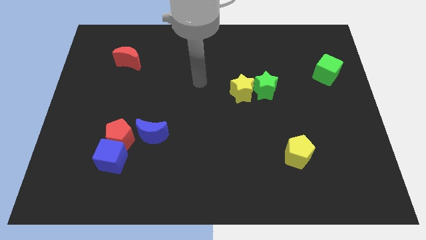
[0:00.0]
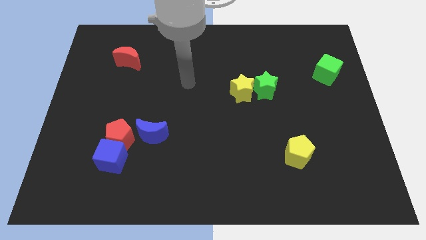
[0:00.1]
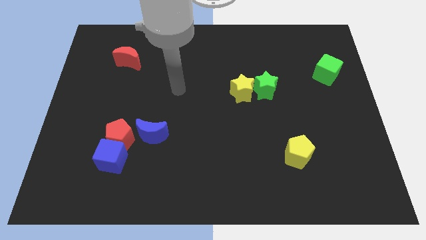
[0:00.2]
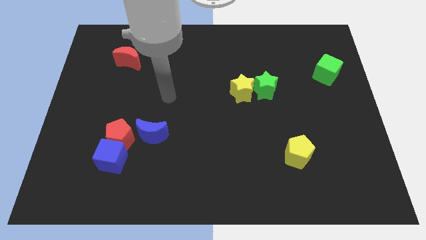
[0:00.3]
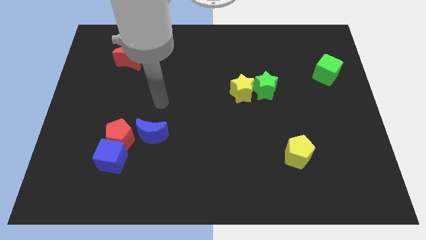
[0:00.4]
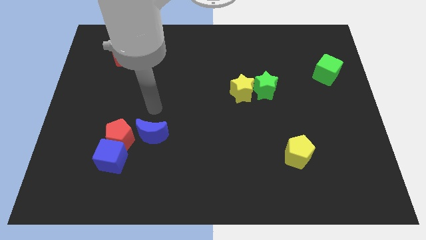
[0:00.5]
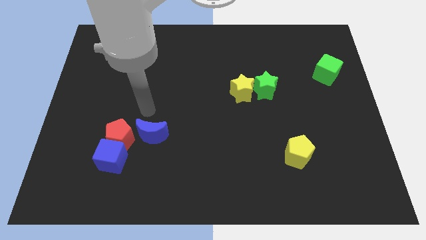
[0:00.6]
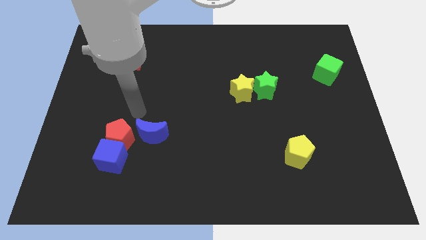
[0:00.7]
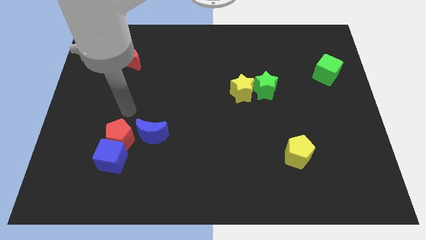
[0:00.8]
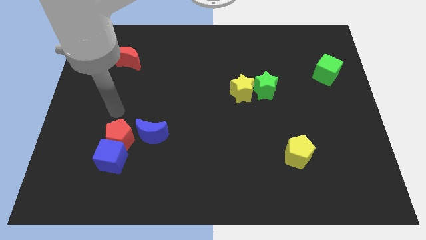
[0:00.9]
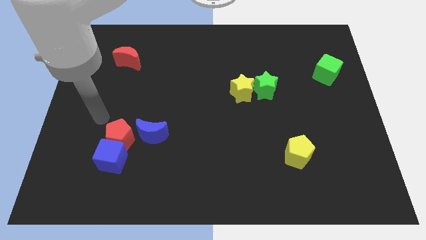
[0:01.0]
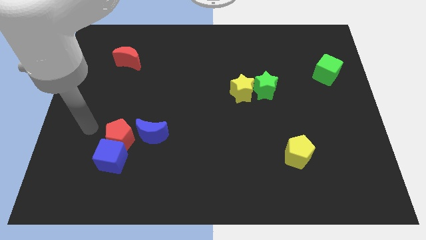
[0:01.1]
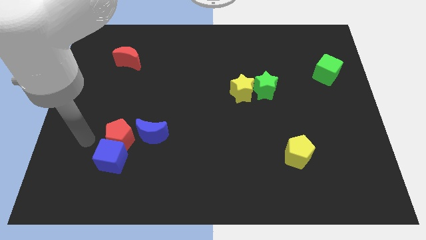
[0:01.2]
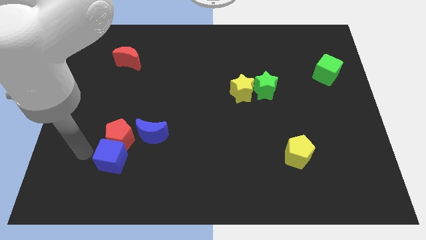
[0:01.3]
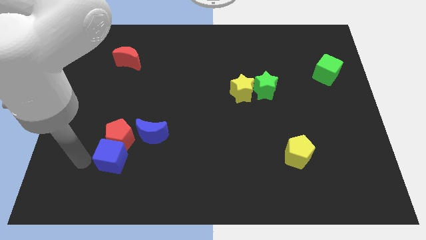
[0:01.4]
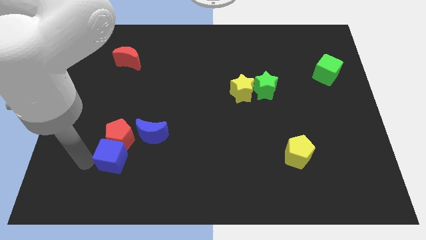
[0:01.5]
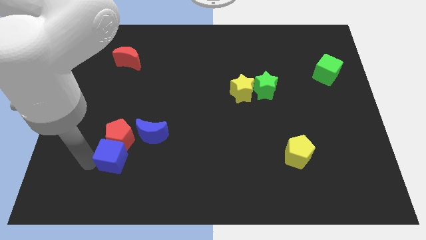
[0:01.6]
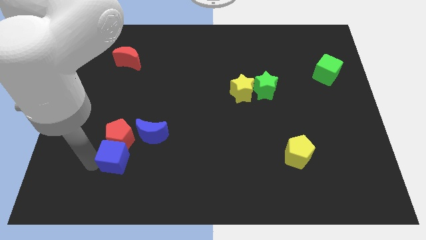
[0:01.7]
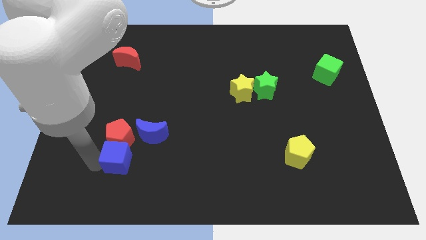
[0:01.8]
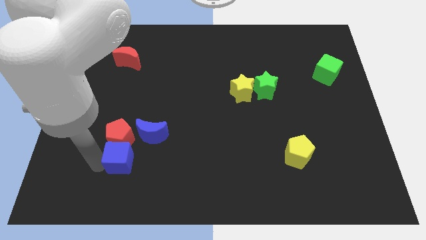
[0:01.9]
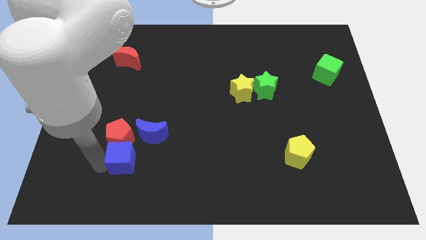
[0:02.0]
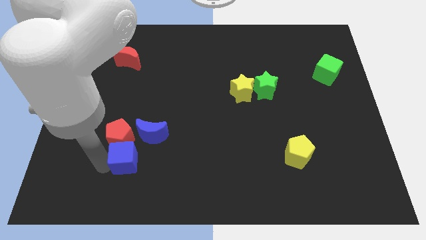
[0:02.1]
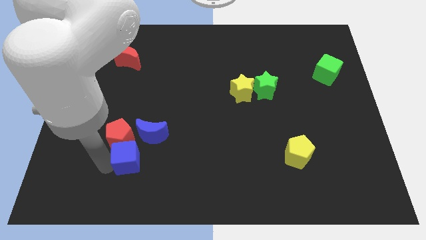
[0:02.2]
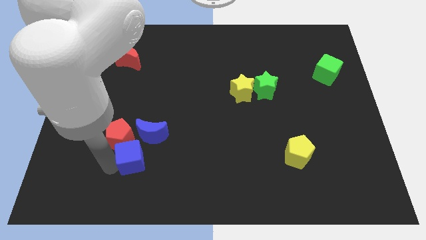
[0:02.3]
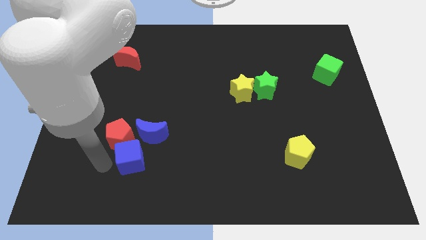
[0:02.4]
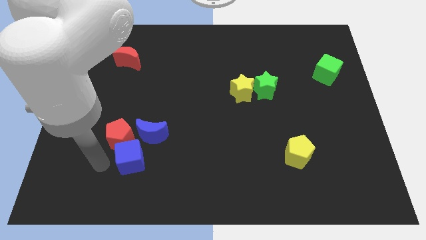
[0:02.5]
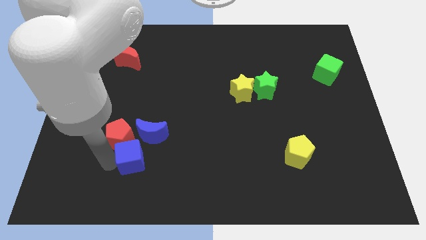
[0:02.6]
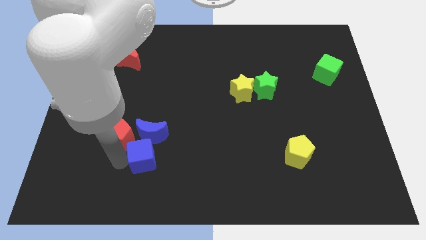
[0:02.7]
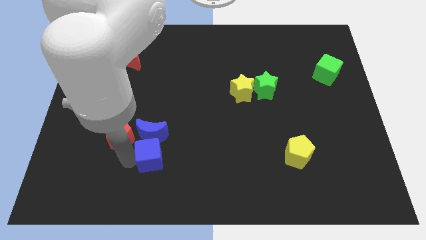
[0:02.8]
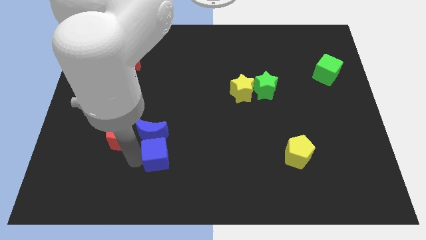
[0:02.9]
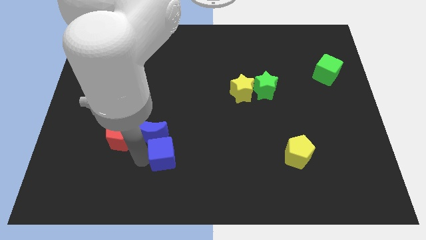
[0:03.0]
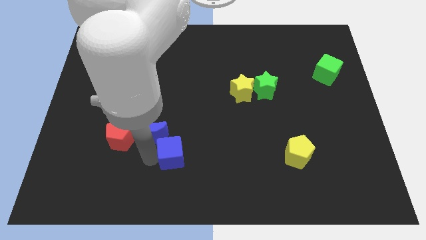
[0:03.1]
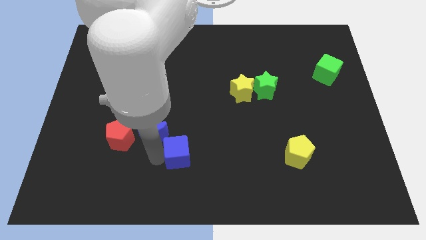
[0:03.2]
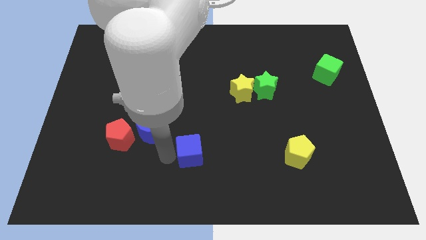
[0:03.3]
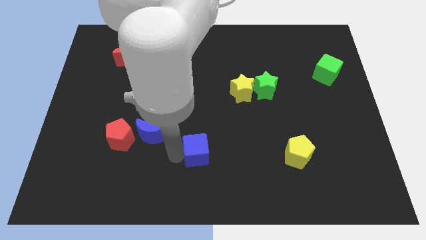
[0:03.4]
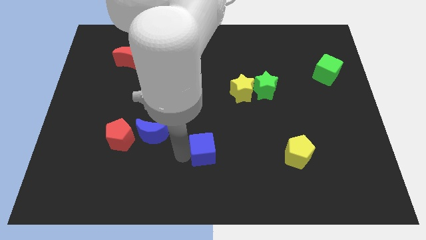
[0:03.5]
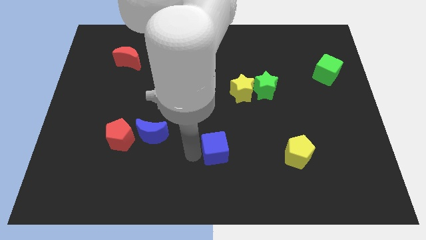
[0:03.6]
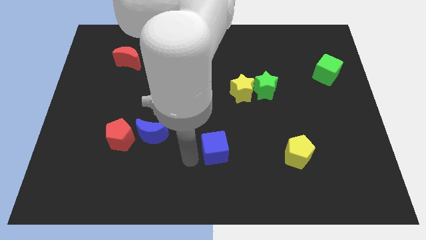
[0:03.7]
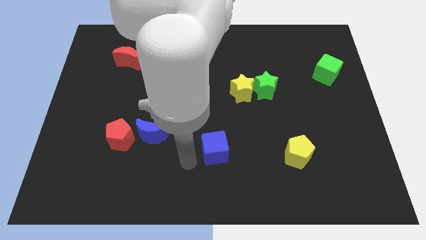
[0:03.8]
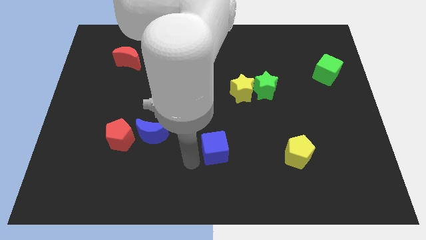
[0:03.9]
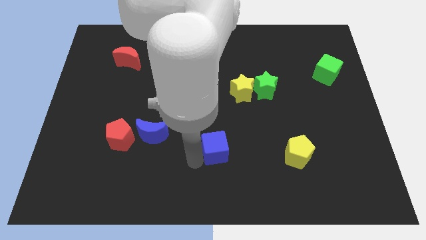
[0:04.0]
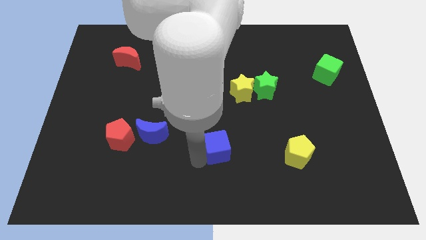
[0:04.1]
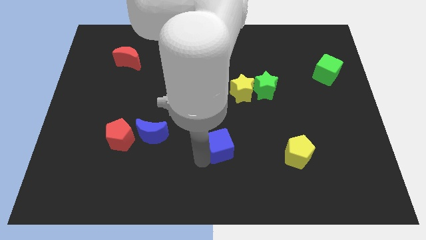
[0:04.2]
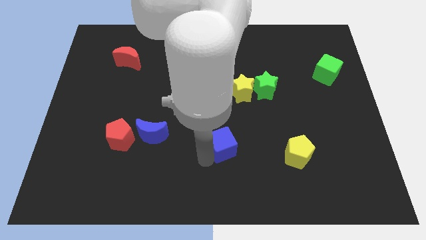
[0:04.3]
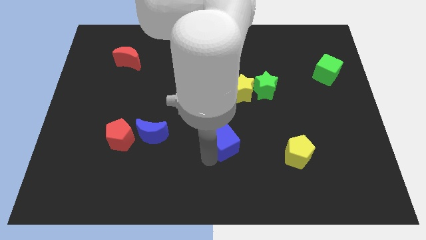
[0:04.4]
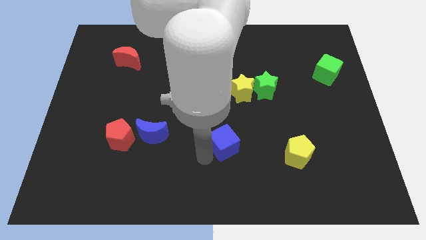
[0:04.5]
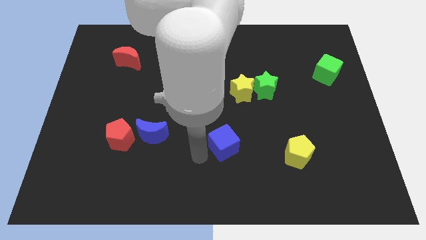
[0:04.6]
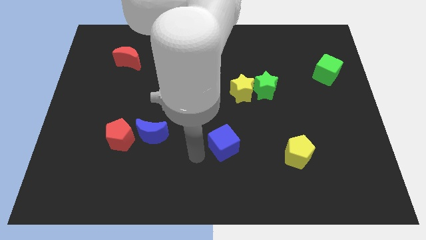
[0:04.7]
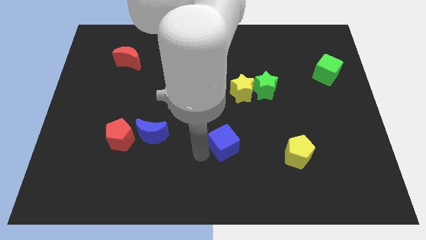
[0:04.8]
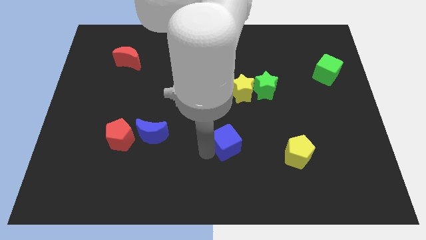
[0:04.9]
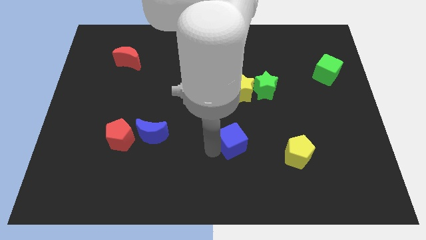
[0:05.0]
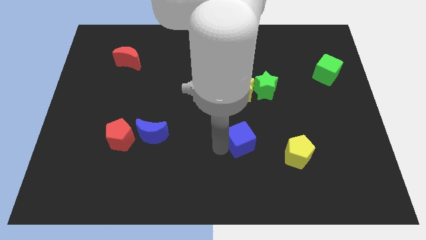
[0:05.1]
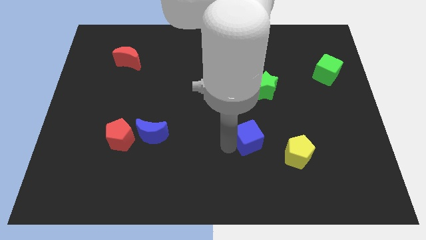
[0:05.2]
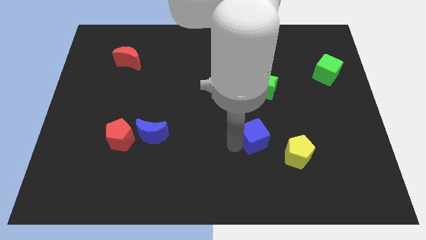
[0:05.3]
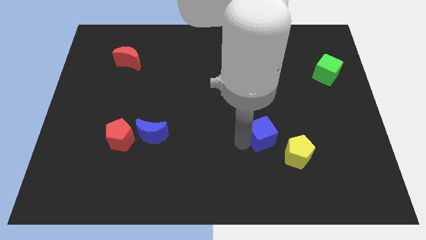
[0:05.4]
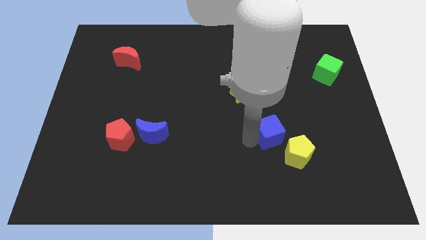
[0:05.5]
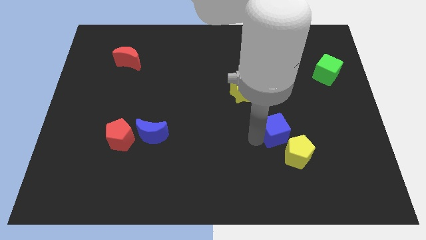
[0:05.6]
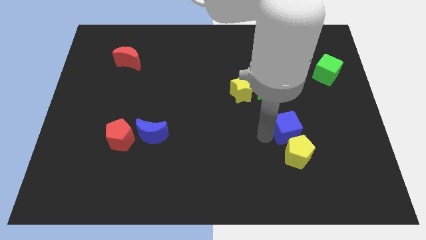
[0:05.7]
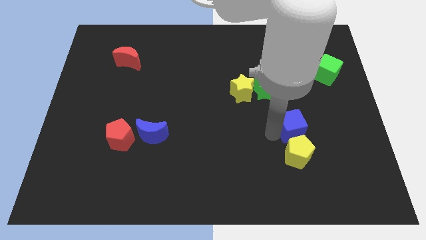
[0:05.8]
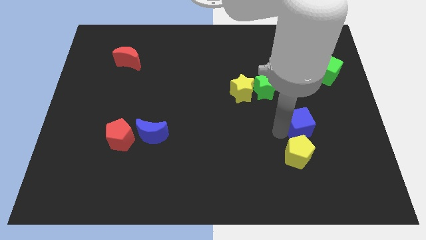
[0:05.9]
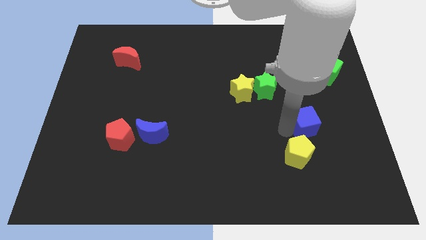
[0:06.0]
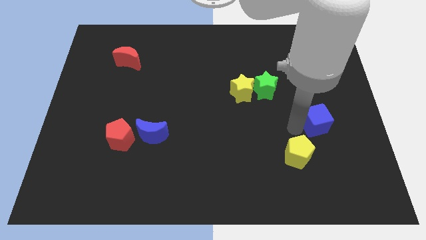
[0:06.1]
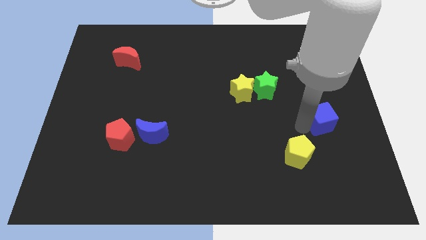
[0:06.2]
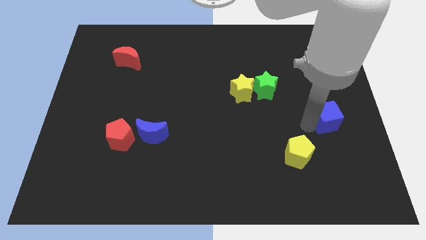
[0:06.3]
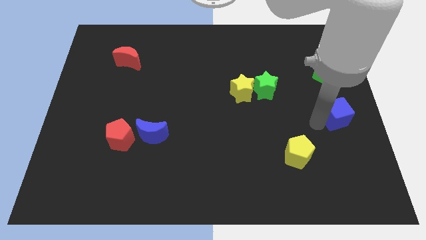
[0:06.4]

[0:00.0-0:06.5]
push the blue cube to the center right

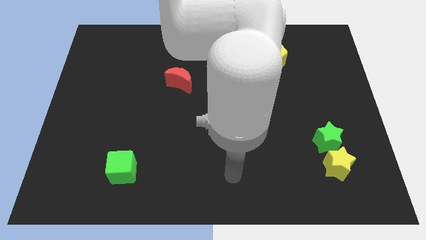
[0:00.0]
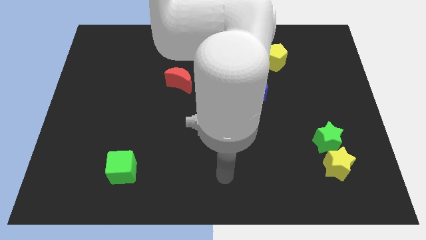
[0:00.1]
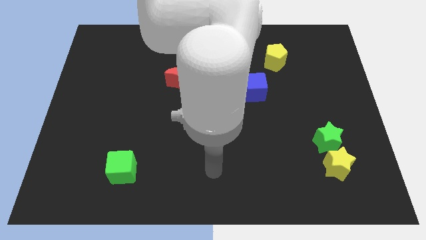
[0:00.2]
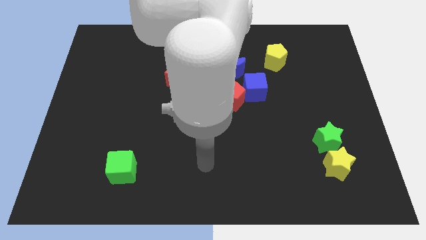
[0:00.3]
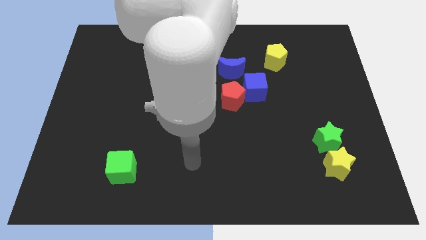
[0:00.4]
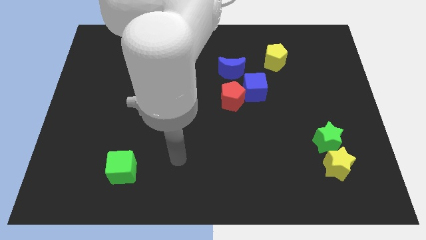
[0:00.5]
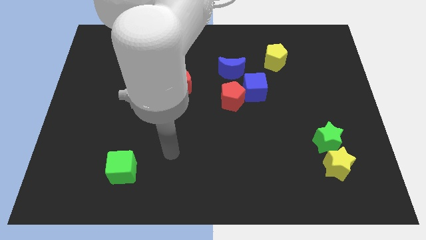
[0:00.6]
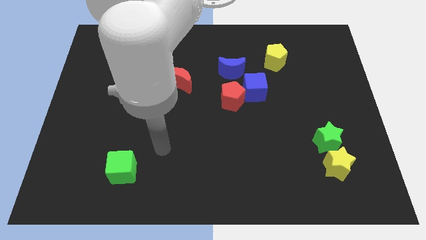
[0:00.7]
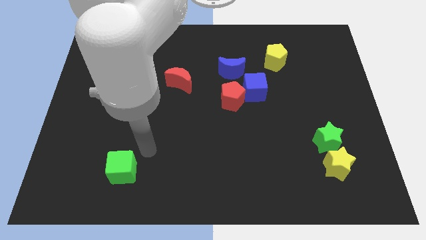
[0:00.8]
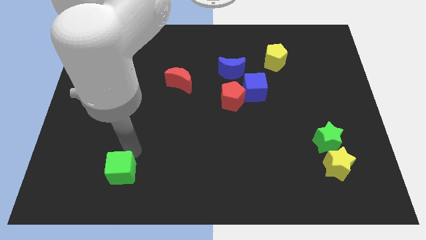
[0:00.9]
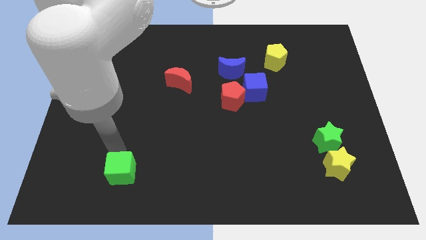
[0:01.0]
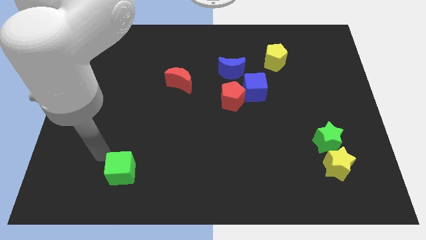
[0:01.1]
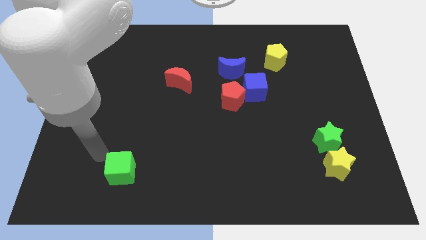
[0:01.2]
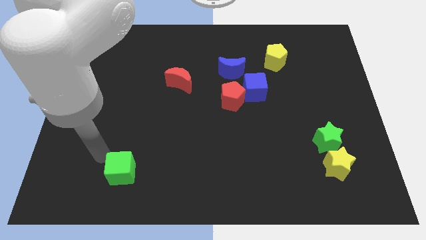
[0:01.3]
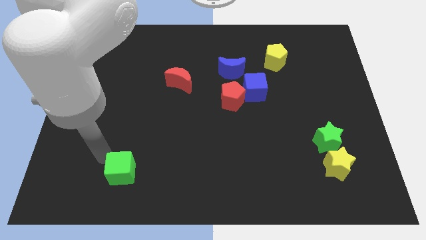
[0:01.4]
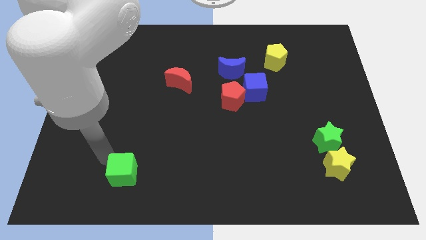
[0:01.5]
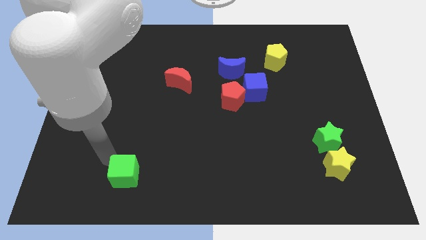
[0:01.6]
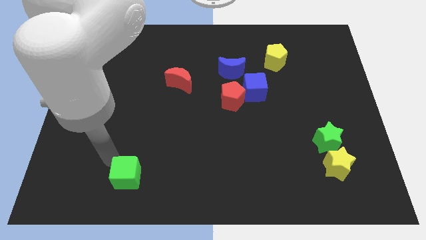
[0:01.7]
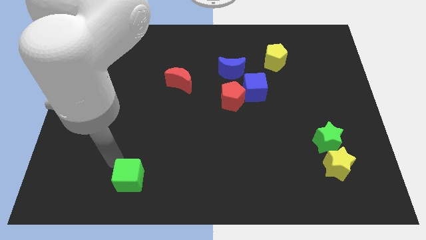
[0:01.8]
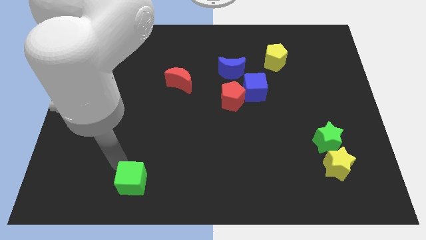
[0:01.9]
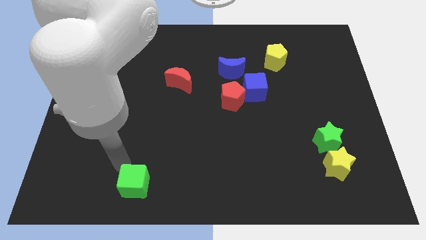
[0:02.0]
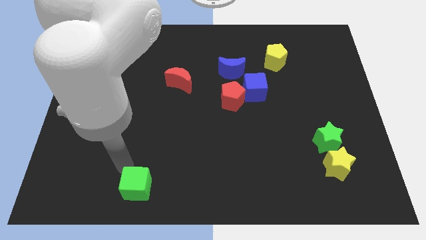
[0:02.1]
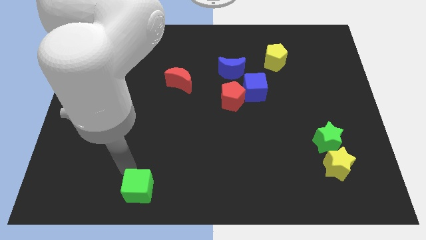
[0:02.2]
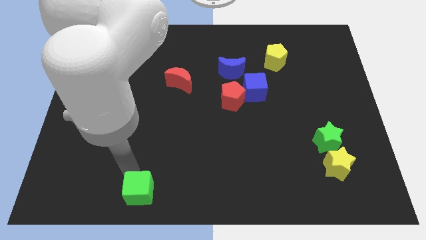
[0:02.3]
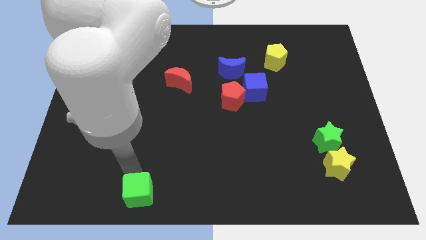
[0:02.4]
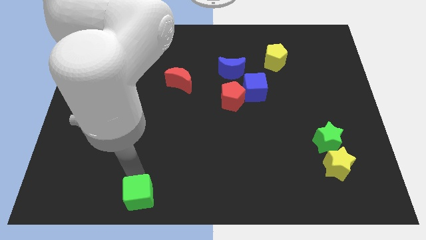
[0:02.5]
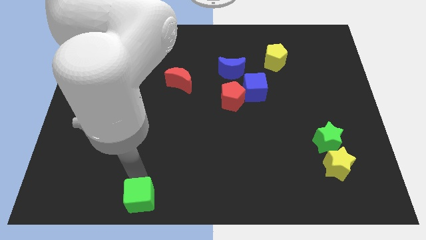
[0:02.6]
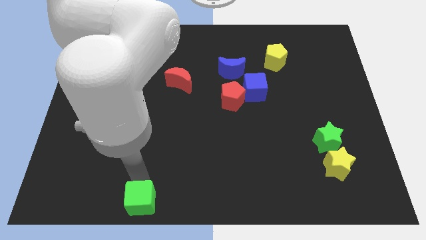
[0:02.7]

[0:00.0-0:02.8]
slide the green cube to the bottom side
